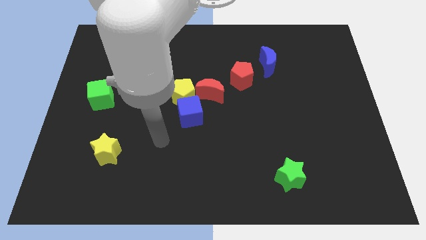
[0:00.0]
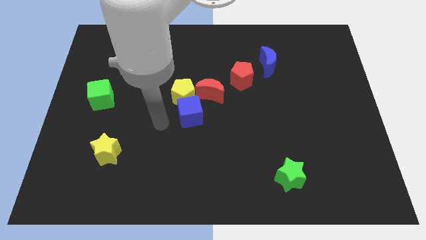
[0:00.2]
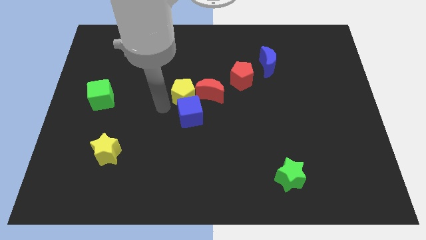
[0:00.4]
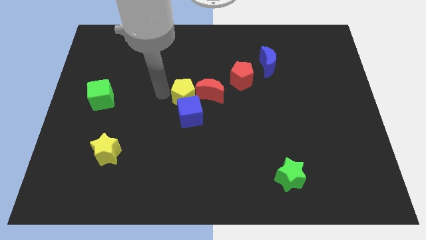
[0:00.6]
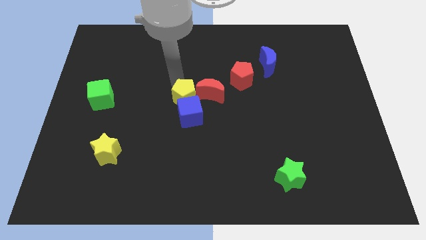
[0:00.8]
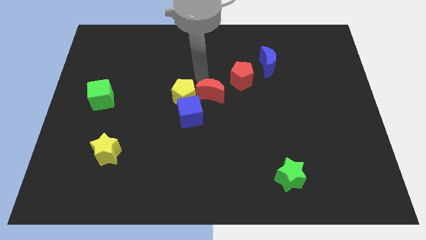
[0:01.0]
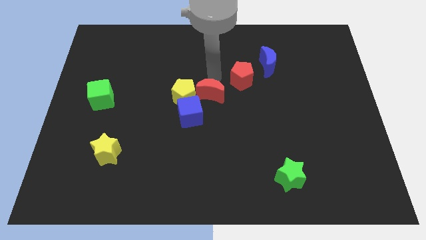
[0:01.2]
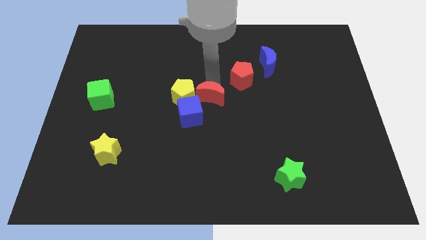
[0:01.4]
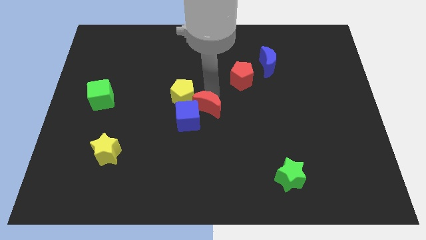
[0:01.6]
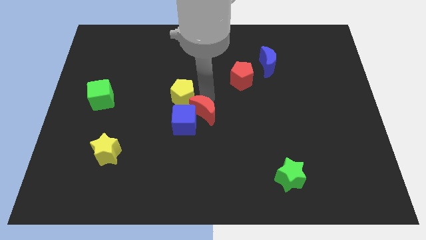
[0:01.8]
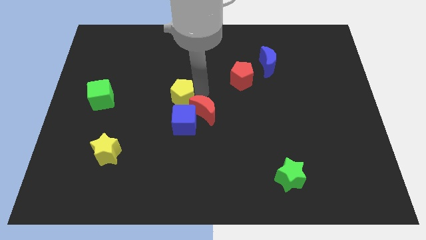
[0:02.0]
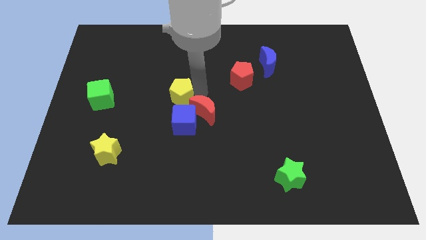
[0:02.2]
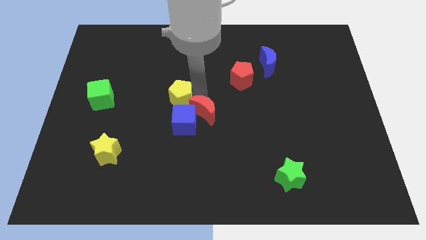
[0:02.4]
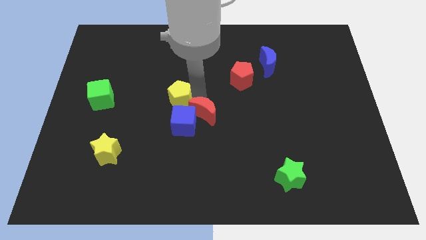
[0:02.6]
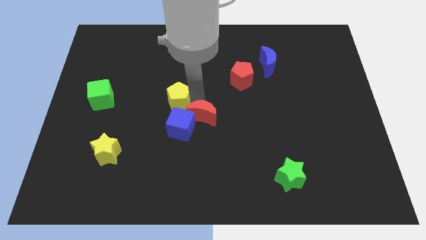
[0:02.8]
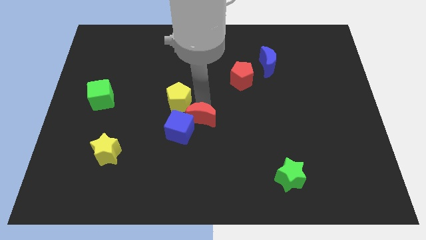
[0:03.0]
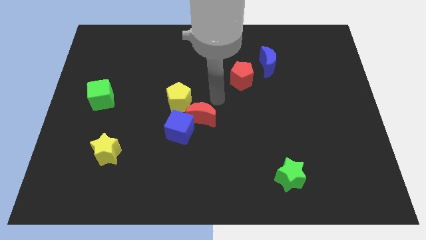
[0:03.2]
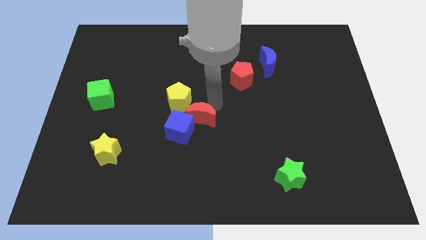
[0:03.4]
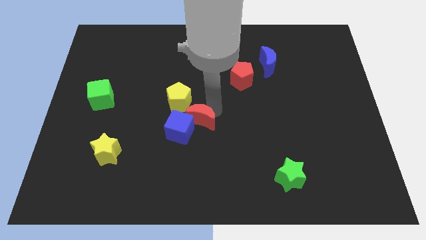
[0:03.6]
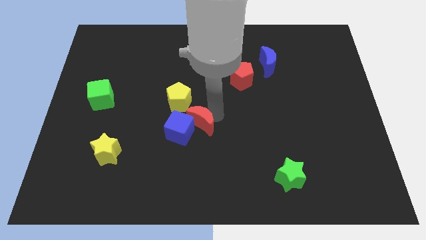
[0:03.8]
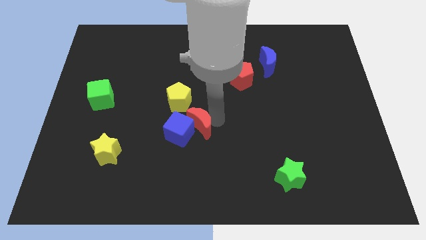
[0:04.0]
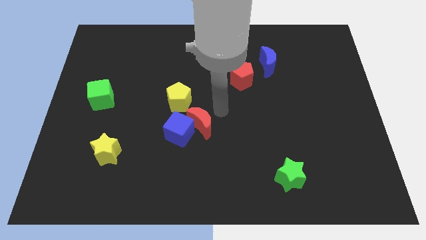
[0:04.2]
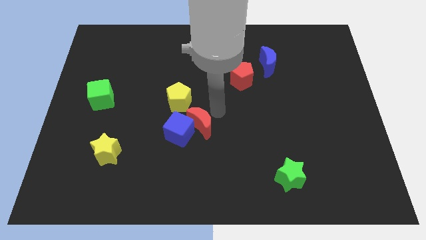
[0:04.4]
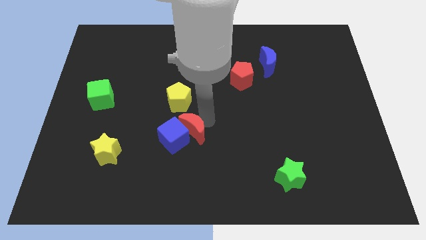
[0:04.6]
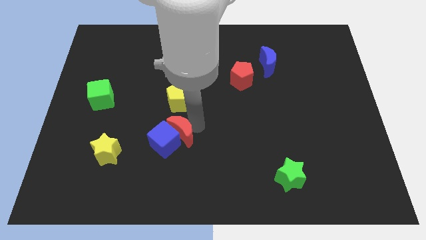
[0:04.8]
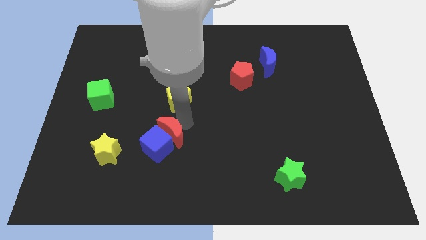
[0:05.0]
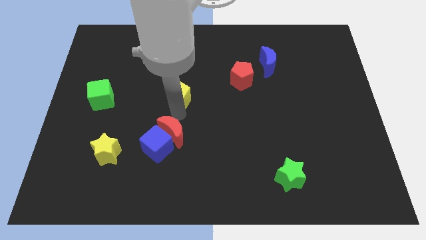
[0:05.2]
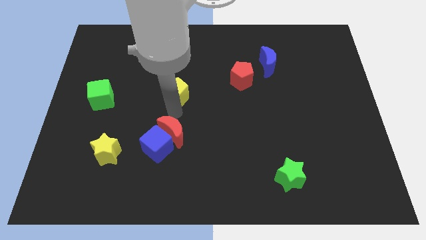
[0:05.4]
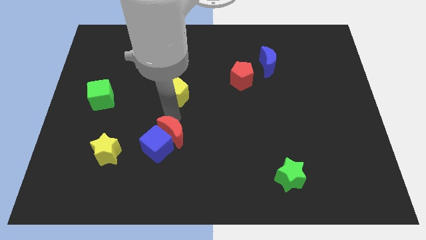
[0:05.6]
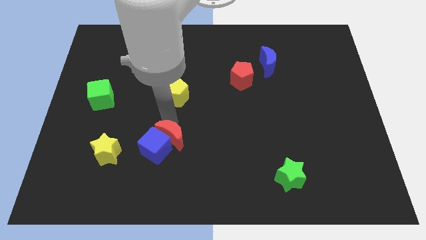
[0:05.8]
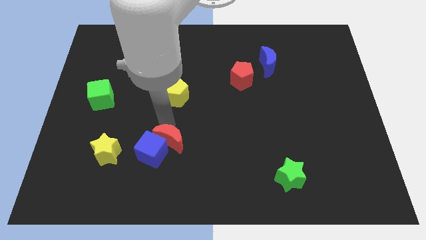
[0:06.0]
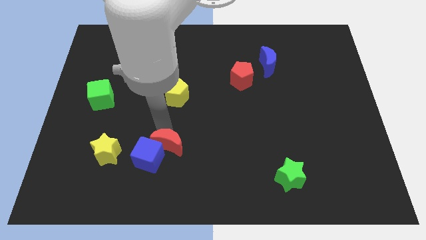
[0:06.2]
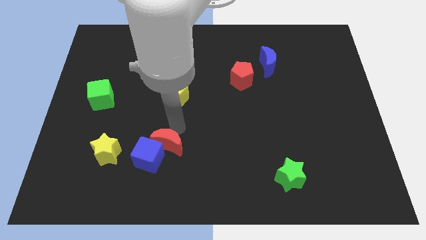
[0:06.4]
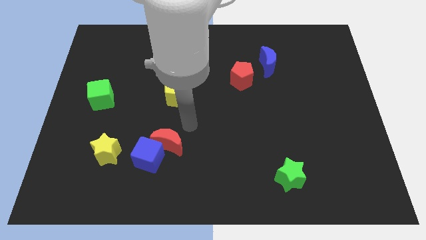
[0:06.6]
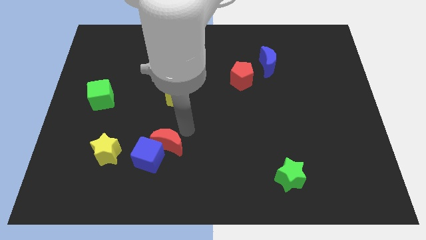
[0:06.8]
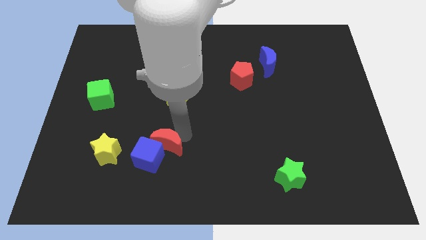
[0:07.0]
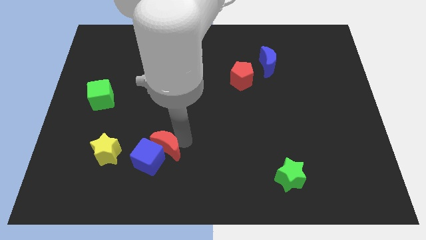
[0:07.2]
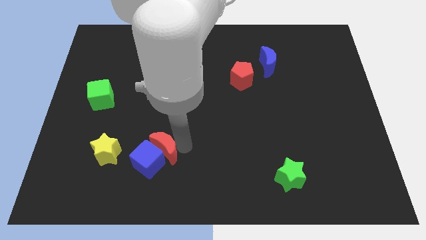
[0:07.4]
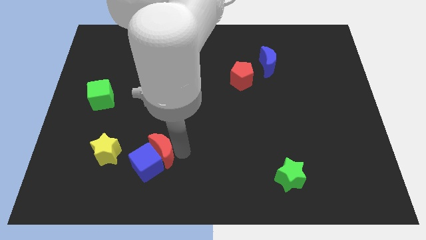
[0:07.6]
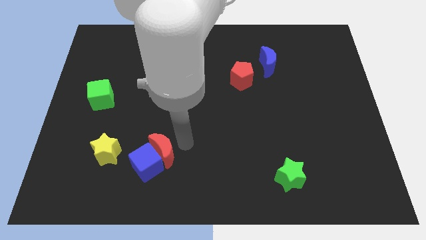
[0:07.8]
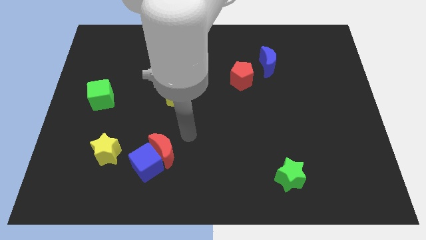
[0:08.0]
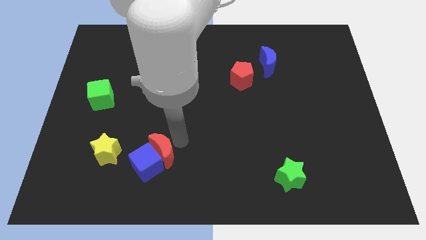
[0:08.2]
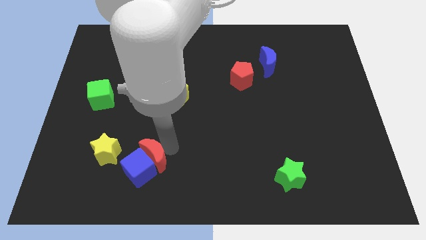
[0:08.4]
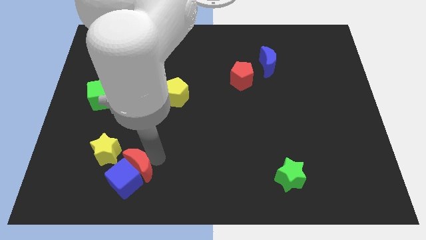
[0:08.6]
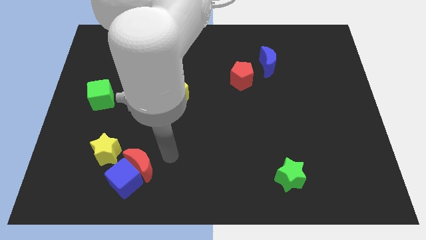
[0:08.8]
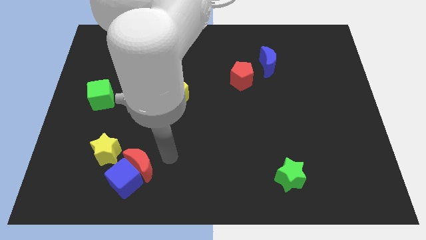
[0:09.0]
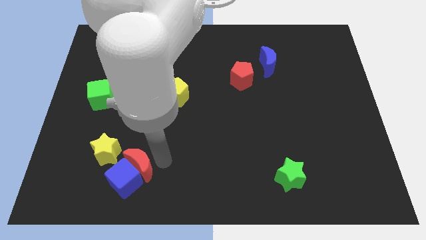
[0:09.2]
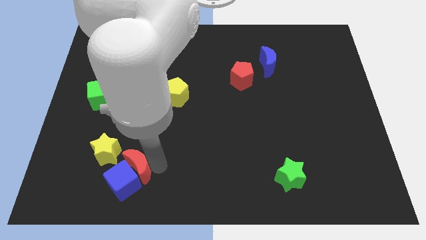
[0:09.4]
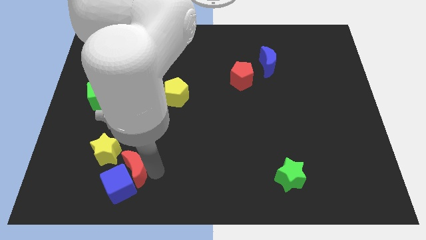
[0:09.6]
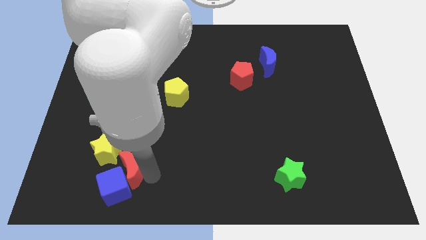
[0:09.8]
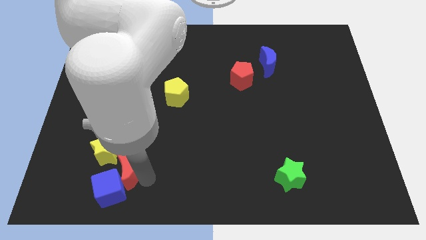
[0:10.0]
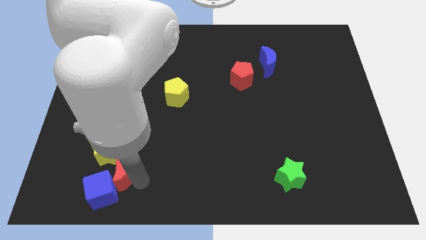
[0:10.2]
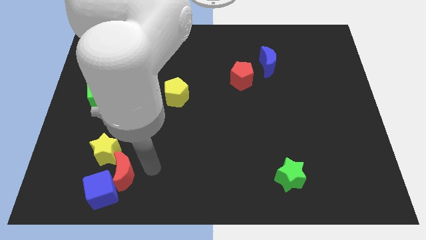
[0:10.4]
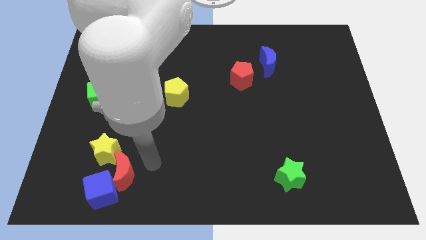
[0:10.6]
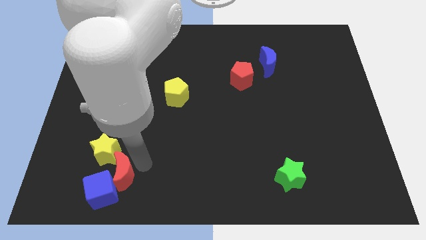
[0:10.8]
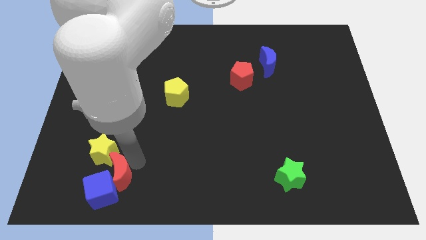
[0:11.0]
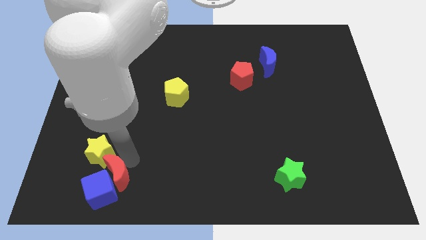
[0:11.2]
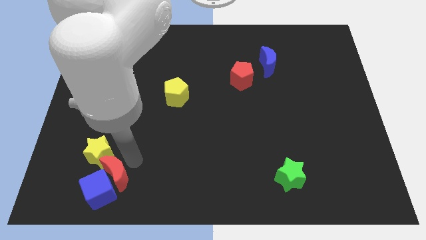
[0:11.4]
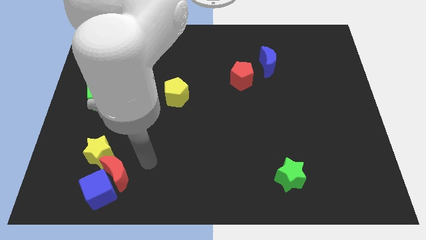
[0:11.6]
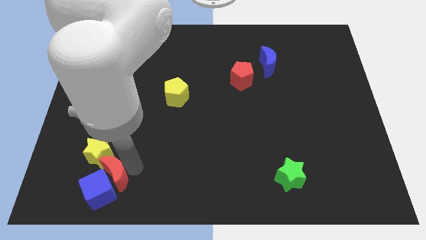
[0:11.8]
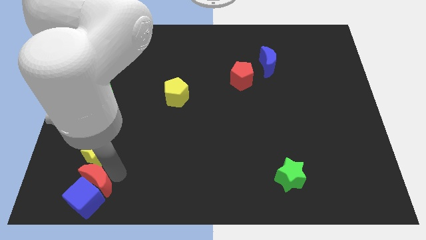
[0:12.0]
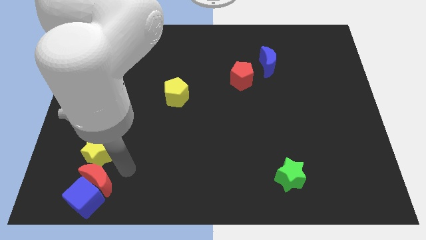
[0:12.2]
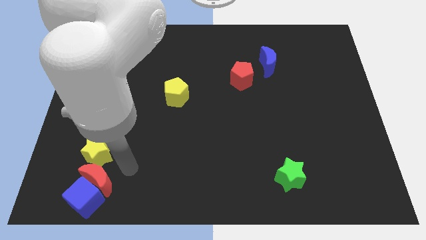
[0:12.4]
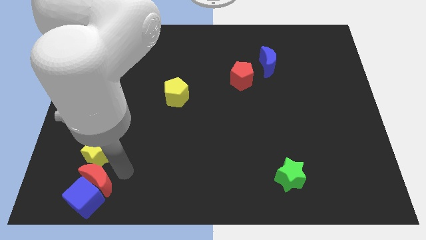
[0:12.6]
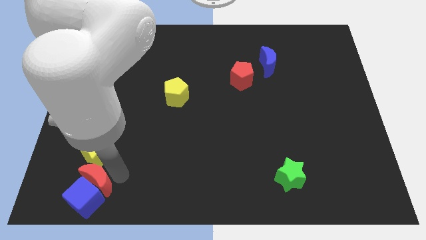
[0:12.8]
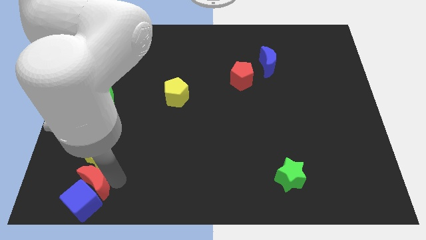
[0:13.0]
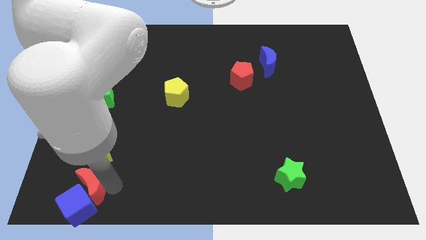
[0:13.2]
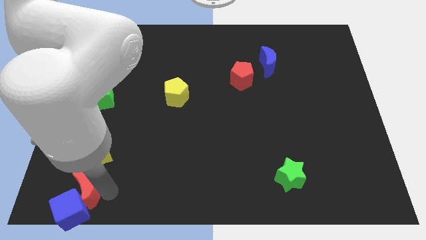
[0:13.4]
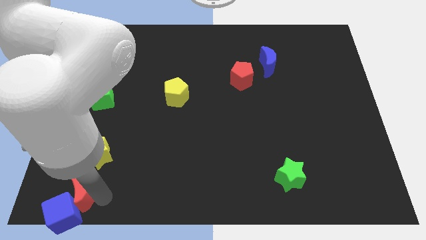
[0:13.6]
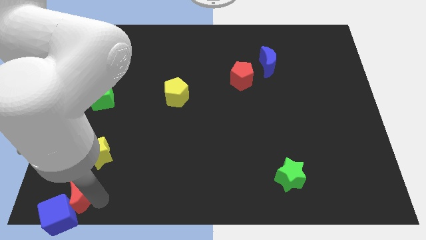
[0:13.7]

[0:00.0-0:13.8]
slide the red moon to the lower left corner
